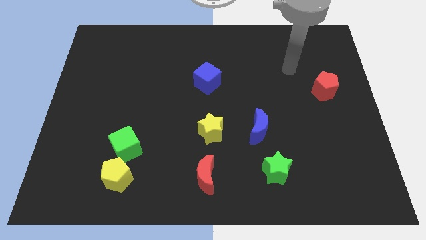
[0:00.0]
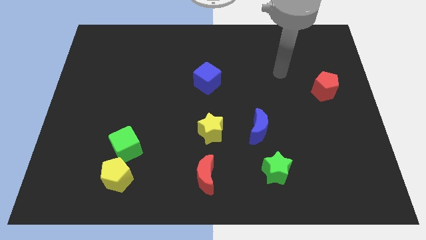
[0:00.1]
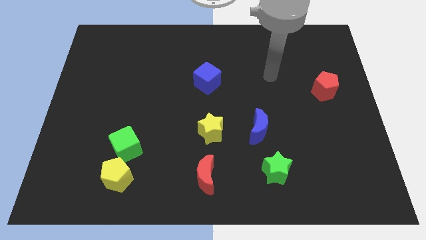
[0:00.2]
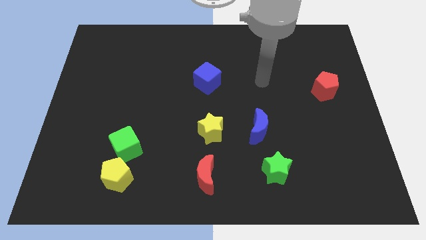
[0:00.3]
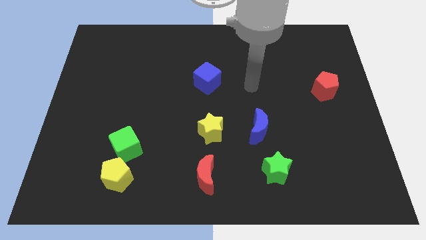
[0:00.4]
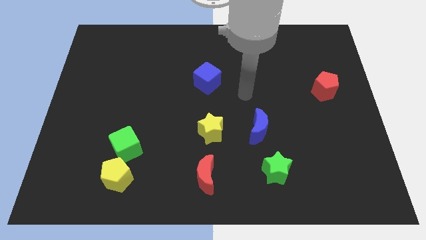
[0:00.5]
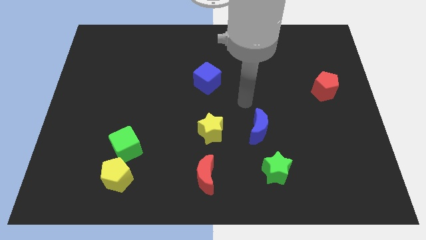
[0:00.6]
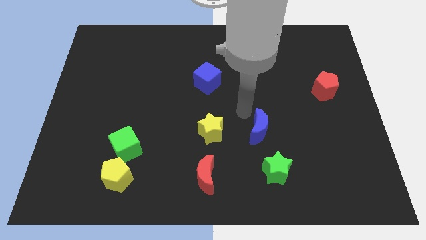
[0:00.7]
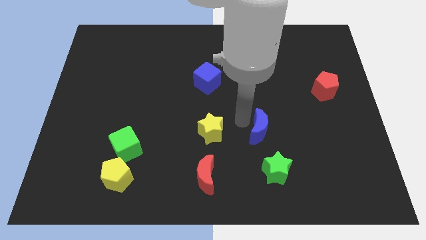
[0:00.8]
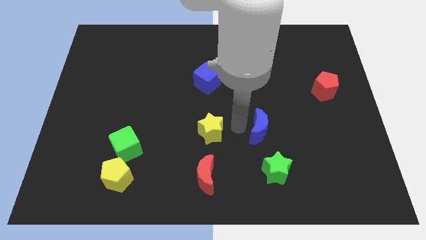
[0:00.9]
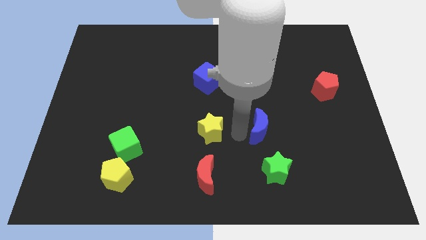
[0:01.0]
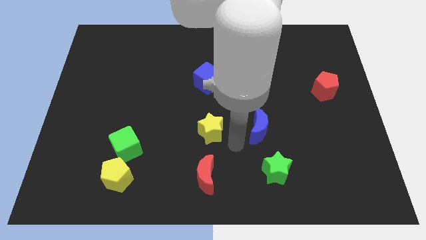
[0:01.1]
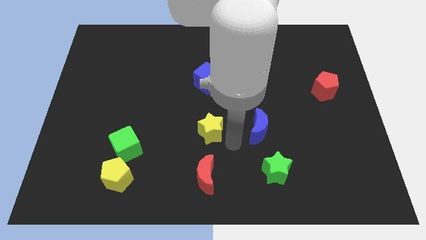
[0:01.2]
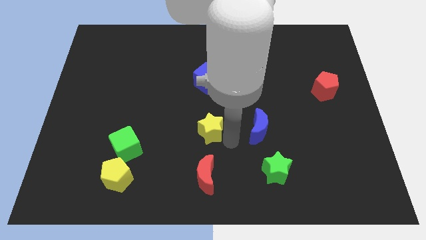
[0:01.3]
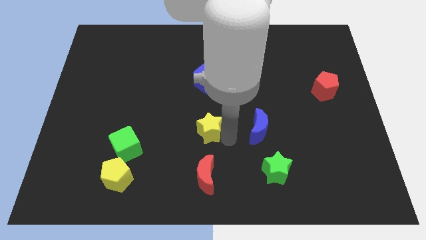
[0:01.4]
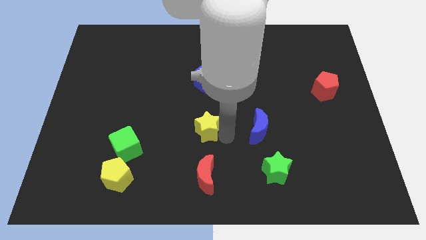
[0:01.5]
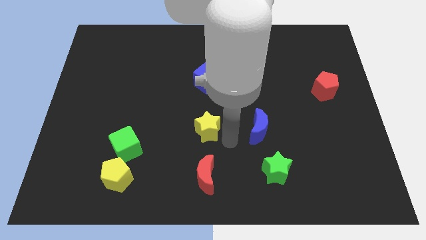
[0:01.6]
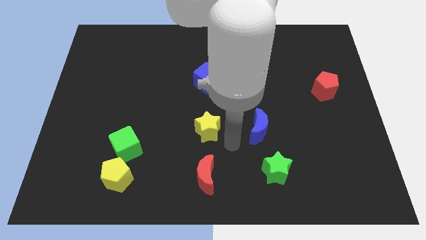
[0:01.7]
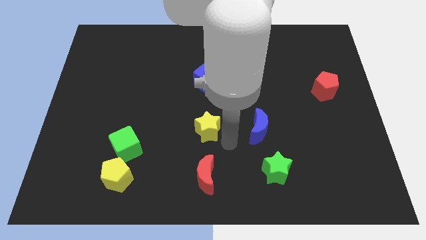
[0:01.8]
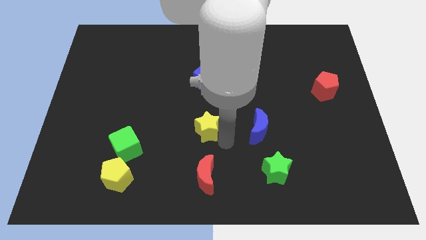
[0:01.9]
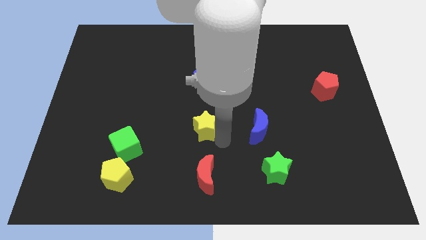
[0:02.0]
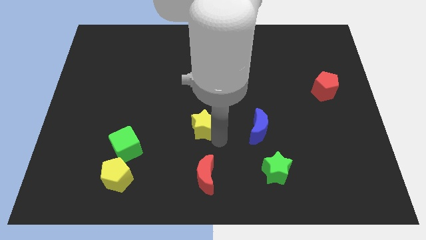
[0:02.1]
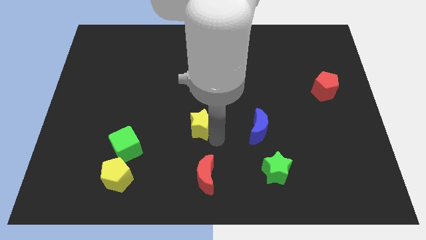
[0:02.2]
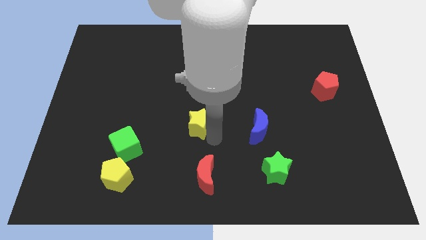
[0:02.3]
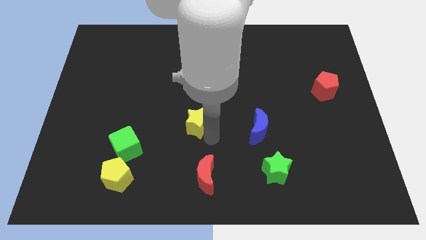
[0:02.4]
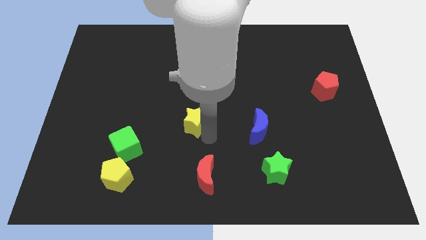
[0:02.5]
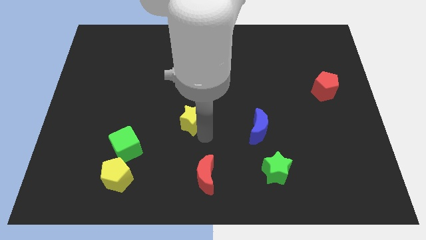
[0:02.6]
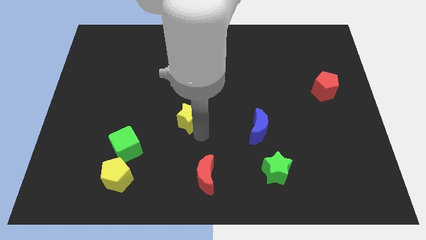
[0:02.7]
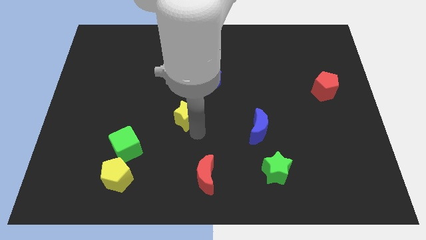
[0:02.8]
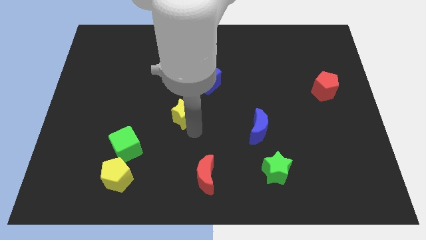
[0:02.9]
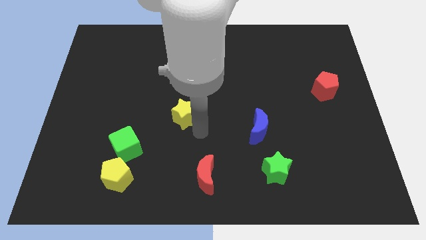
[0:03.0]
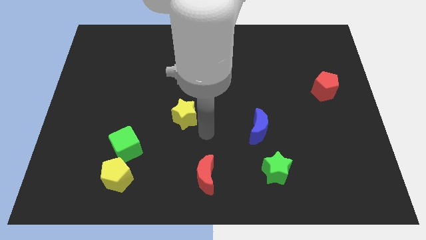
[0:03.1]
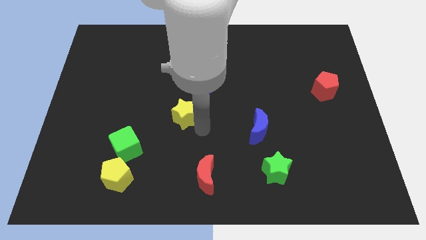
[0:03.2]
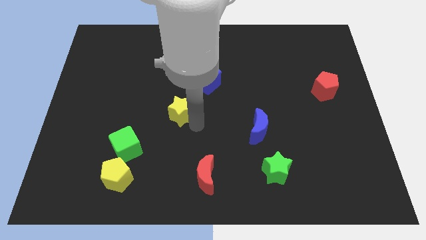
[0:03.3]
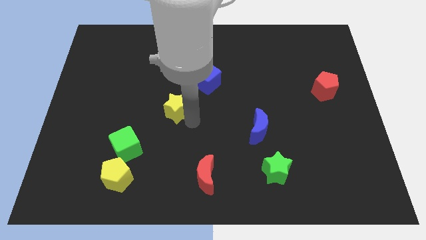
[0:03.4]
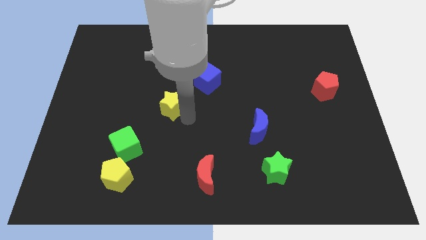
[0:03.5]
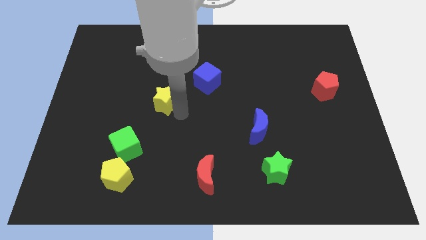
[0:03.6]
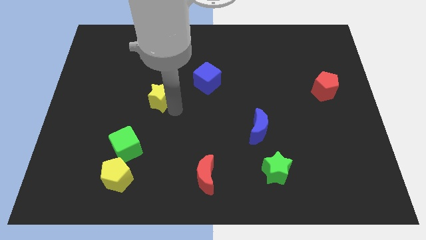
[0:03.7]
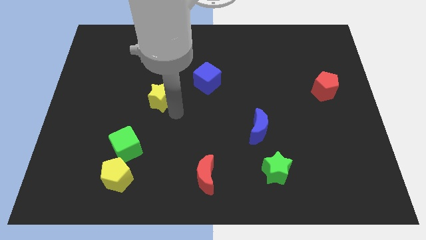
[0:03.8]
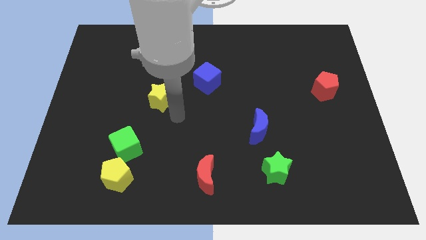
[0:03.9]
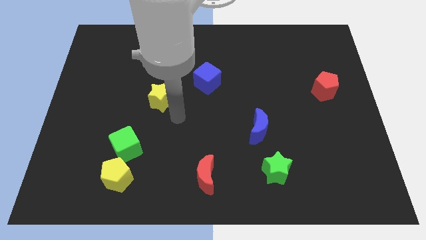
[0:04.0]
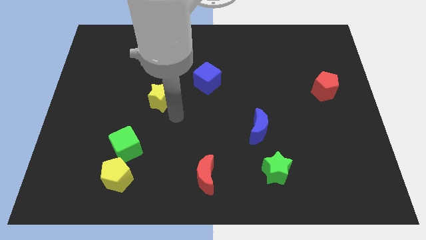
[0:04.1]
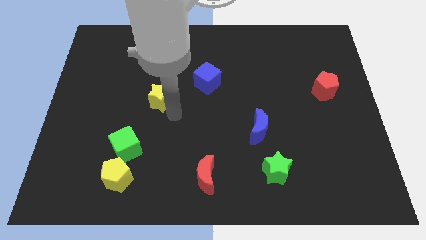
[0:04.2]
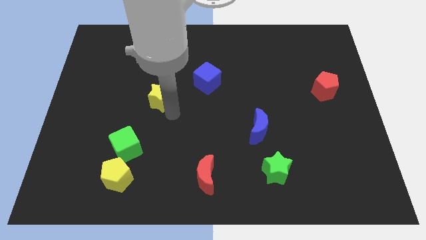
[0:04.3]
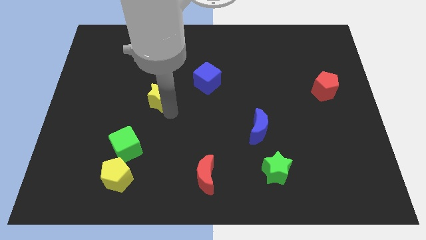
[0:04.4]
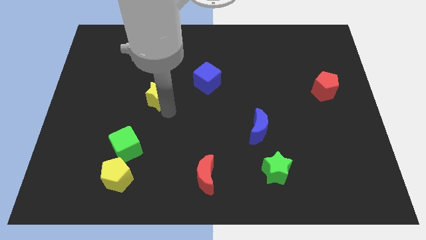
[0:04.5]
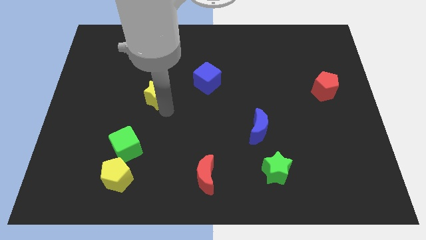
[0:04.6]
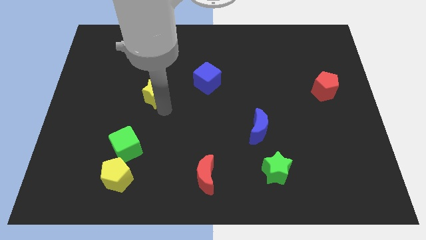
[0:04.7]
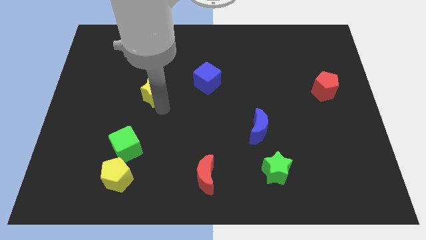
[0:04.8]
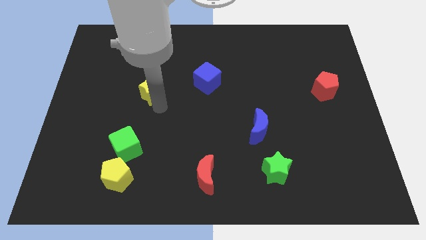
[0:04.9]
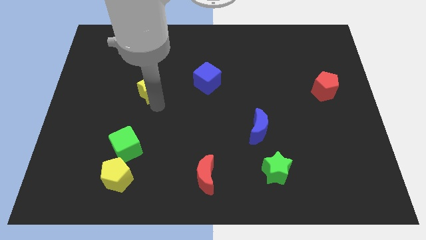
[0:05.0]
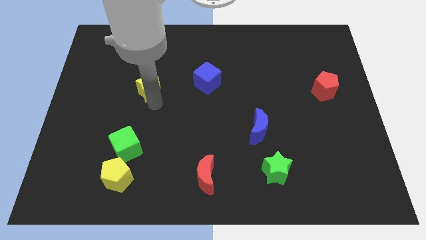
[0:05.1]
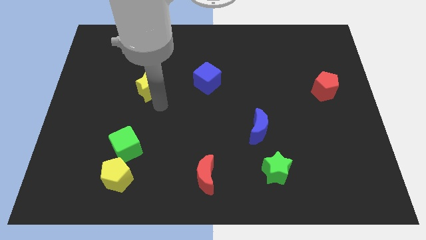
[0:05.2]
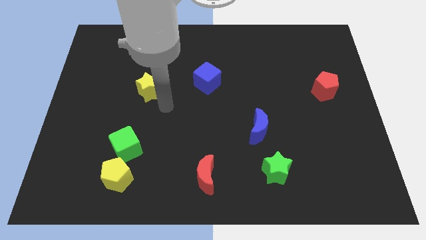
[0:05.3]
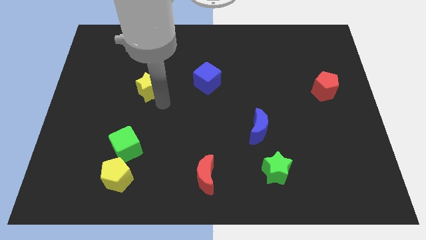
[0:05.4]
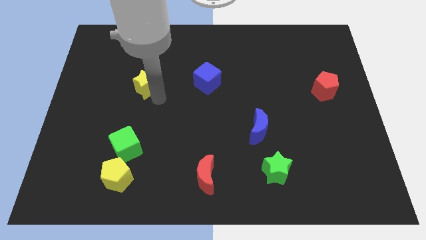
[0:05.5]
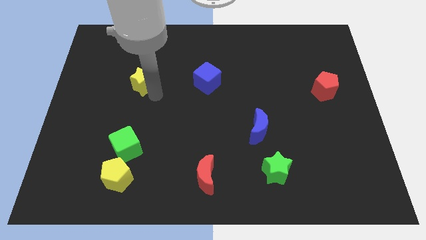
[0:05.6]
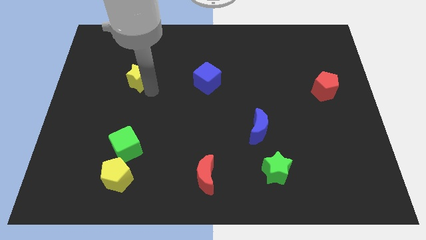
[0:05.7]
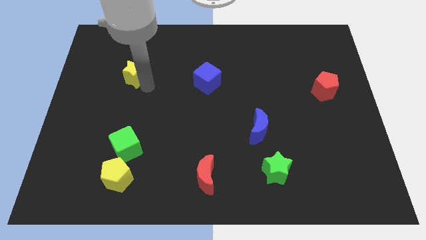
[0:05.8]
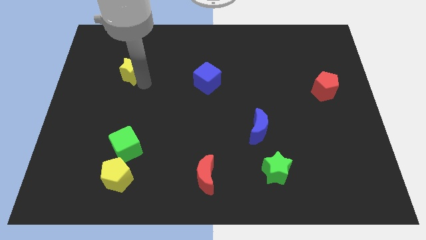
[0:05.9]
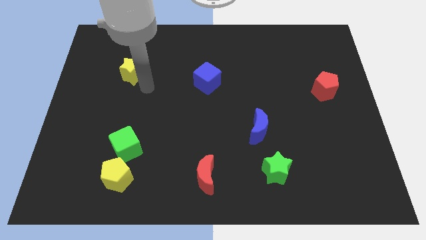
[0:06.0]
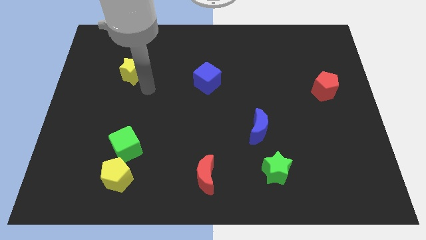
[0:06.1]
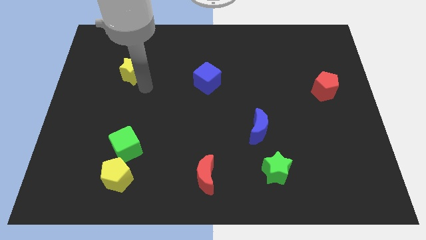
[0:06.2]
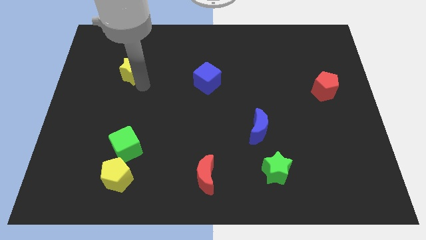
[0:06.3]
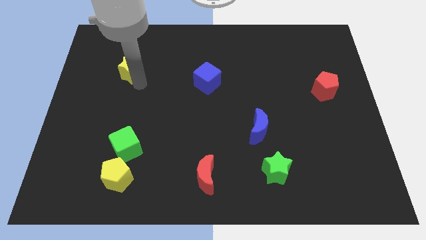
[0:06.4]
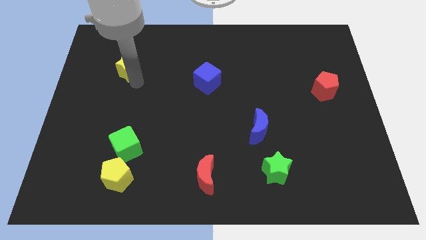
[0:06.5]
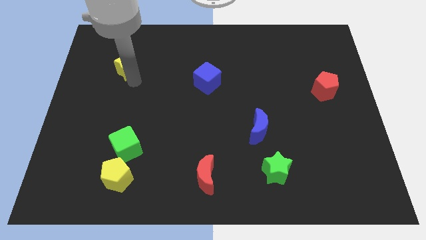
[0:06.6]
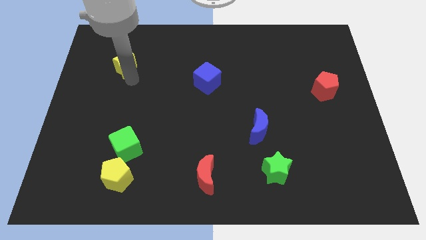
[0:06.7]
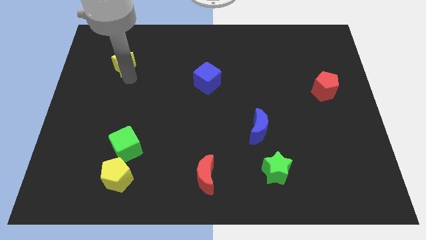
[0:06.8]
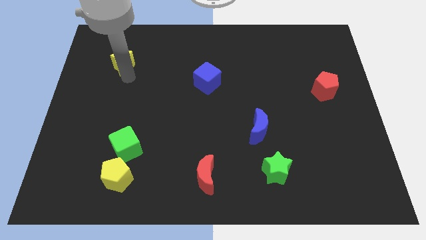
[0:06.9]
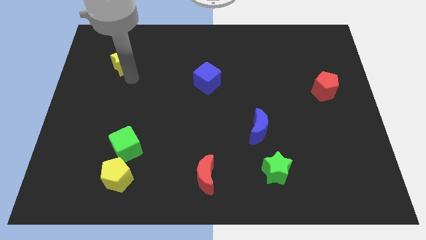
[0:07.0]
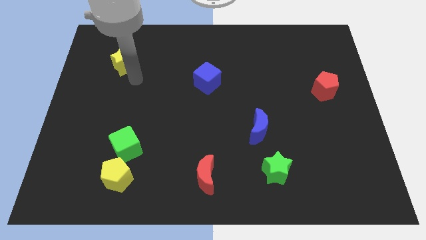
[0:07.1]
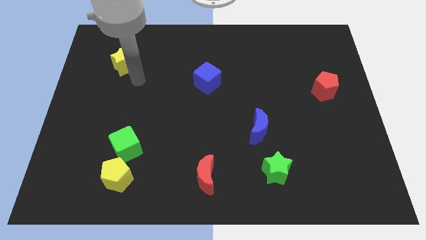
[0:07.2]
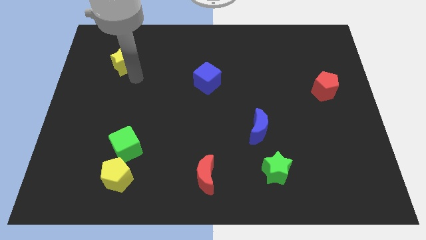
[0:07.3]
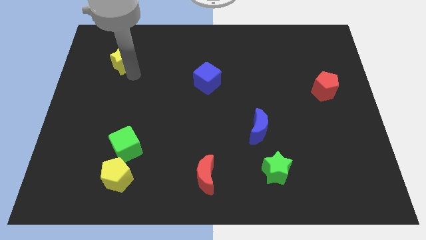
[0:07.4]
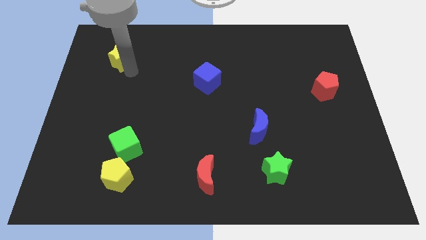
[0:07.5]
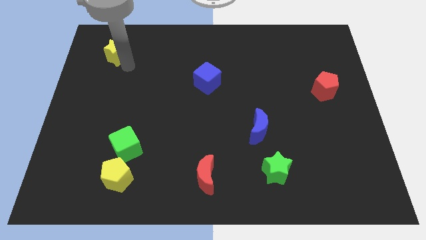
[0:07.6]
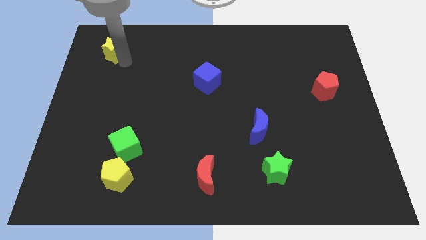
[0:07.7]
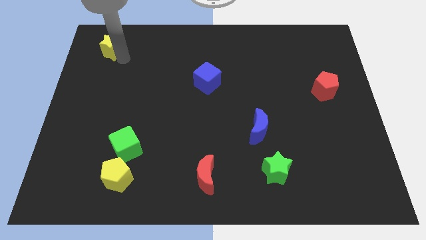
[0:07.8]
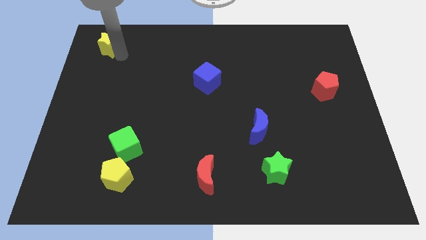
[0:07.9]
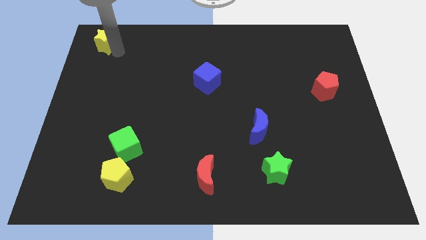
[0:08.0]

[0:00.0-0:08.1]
push the yellow star to the top left corner
